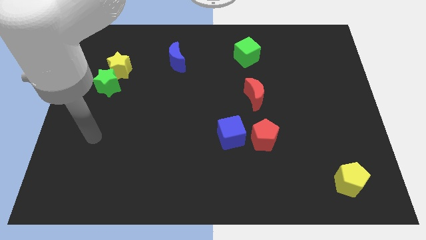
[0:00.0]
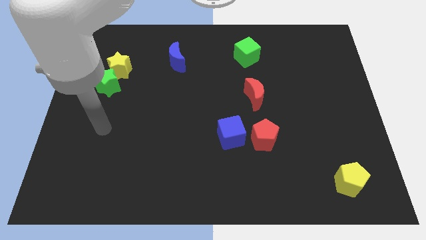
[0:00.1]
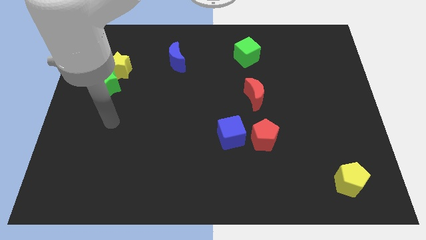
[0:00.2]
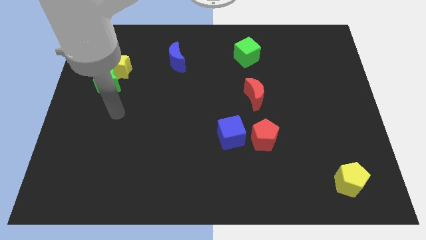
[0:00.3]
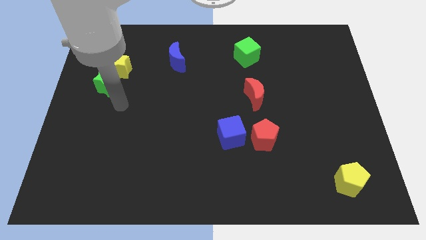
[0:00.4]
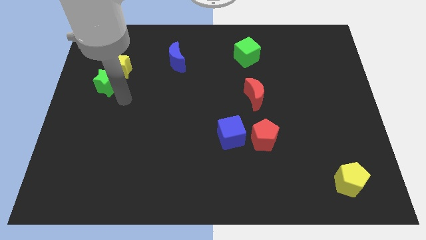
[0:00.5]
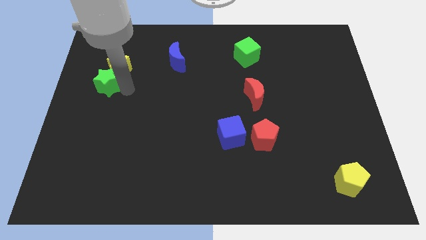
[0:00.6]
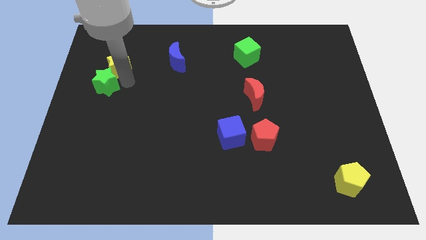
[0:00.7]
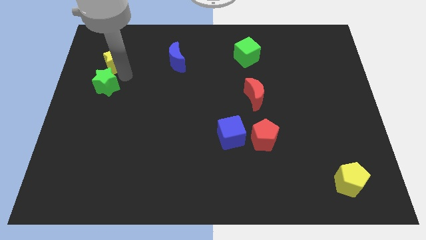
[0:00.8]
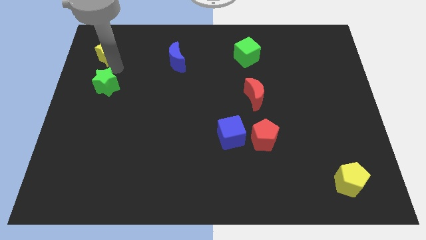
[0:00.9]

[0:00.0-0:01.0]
move the green star away from the yellow star

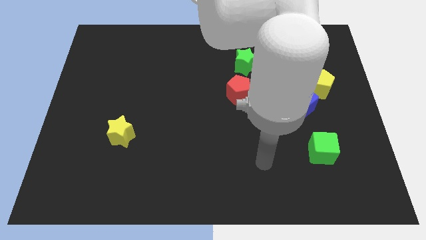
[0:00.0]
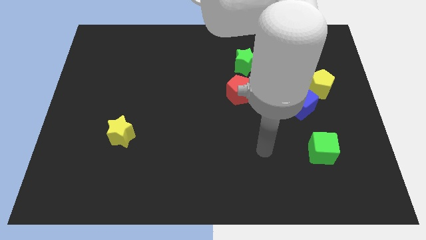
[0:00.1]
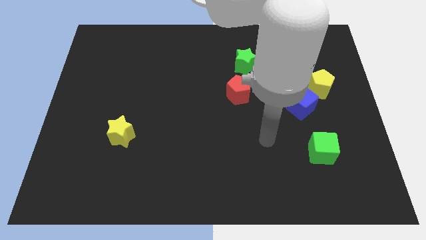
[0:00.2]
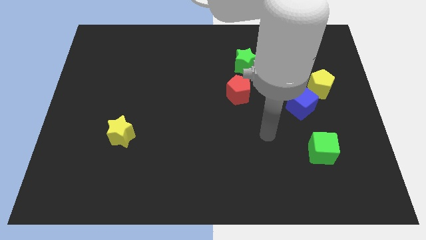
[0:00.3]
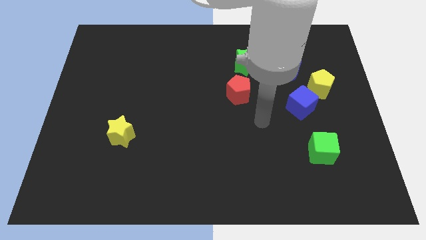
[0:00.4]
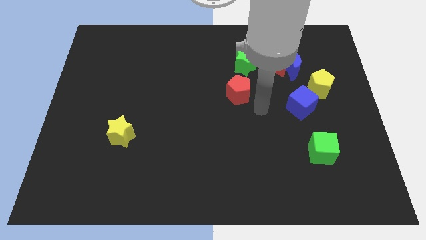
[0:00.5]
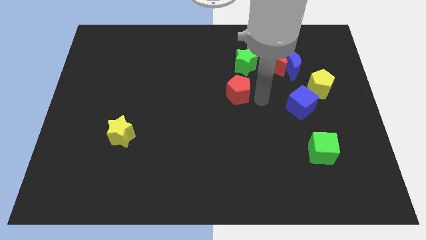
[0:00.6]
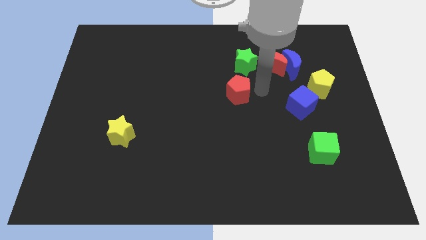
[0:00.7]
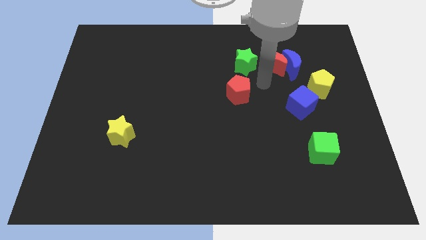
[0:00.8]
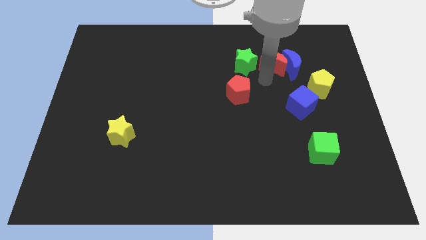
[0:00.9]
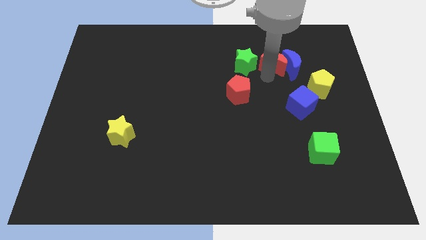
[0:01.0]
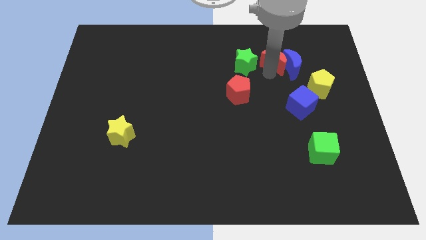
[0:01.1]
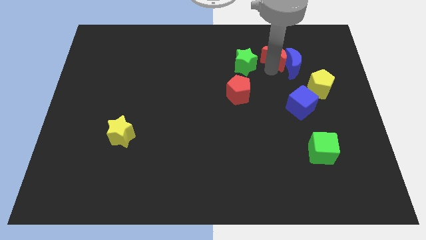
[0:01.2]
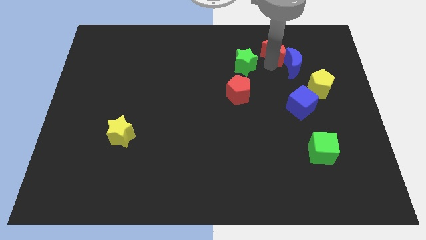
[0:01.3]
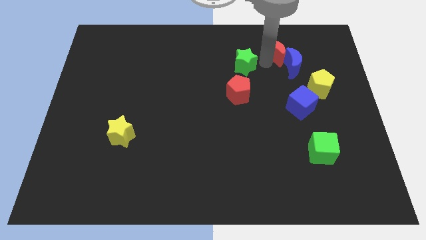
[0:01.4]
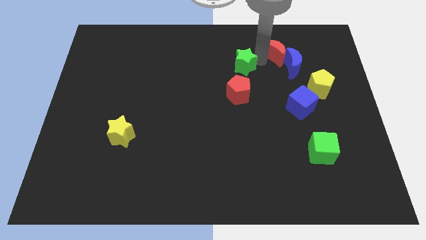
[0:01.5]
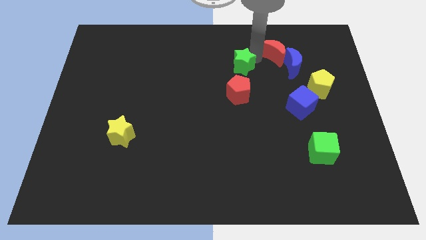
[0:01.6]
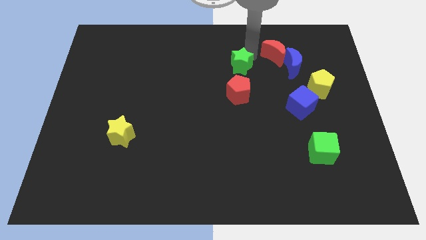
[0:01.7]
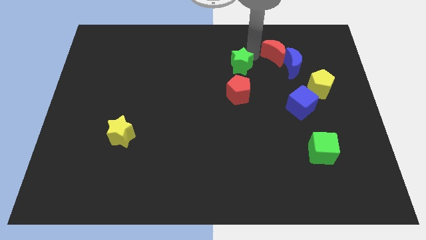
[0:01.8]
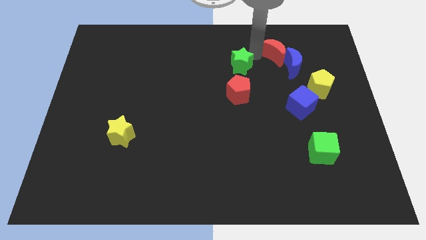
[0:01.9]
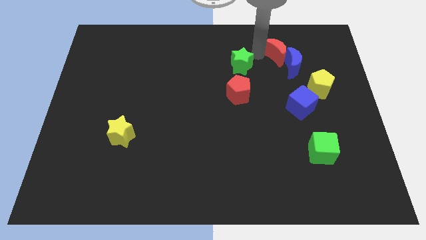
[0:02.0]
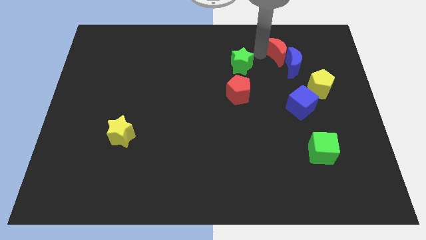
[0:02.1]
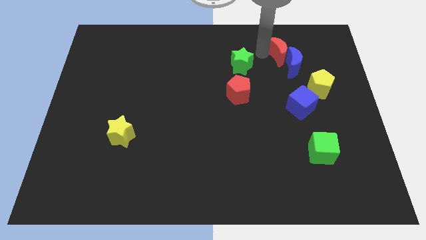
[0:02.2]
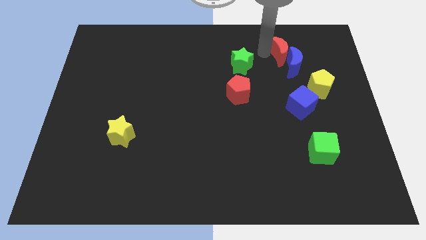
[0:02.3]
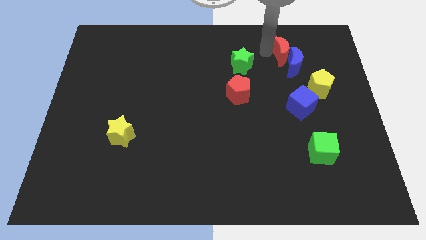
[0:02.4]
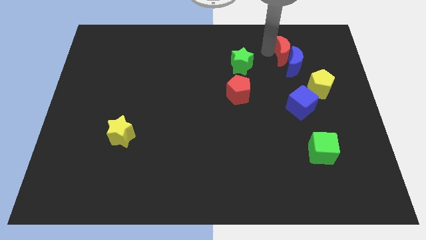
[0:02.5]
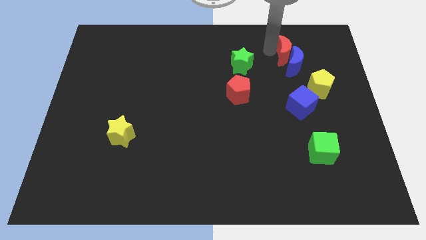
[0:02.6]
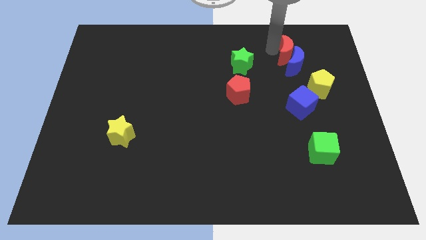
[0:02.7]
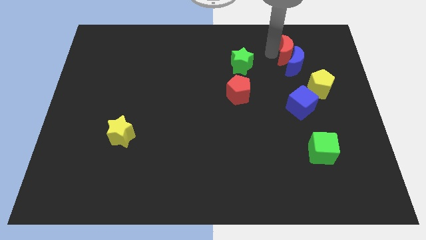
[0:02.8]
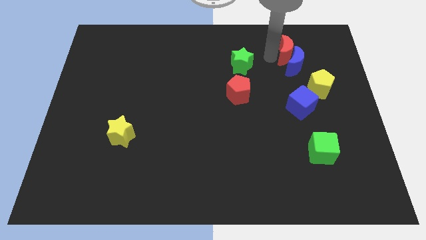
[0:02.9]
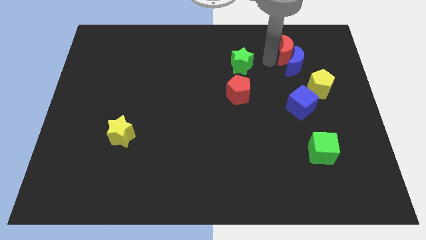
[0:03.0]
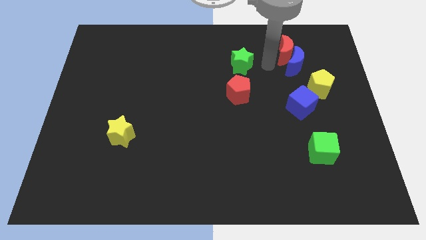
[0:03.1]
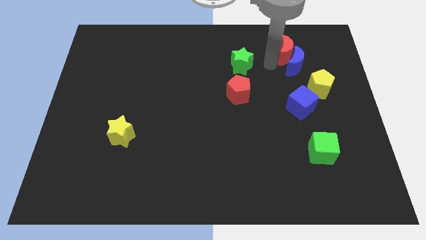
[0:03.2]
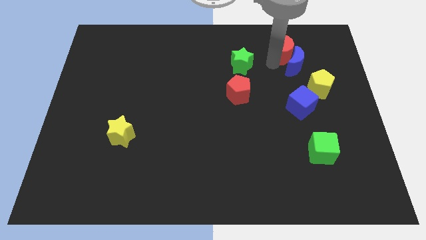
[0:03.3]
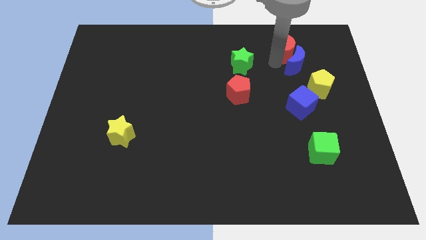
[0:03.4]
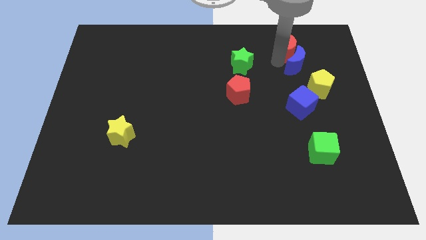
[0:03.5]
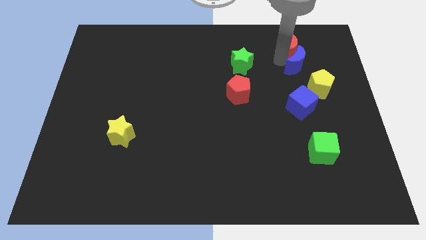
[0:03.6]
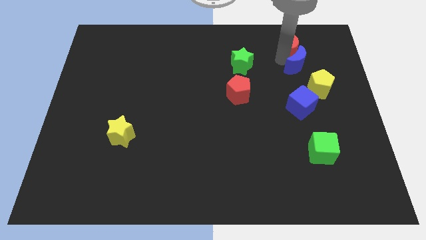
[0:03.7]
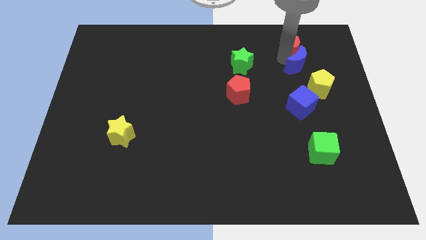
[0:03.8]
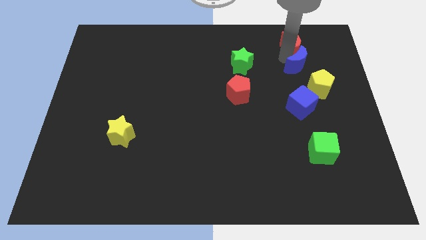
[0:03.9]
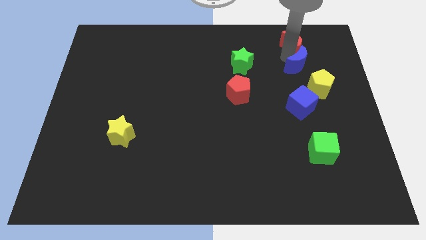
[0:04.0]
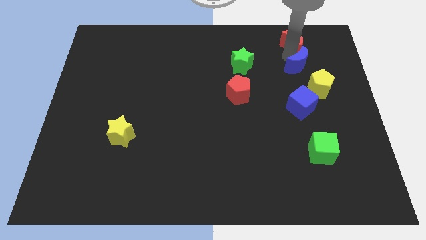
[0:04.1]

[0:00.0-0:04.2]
separate the red moon from the blue moon and green star

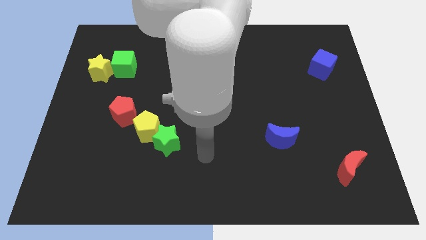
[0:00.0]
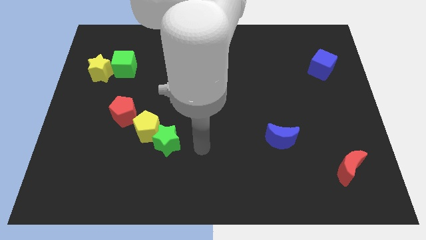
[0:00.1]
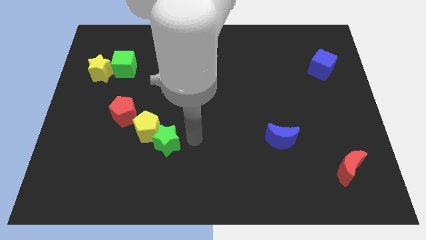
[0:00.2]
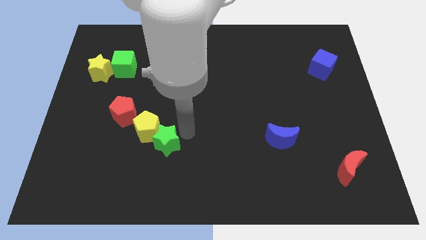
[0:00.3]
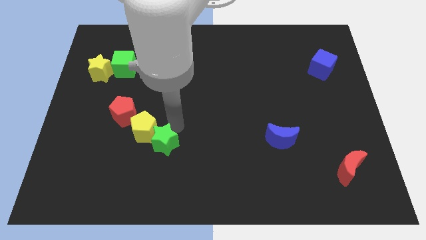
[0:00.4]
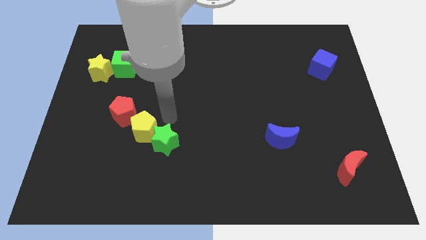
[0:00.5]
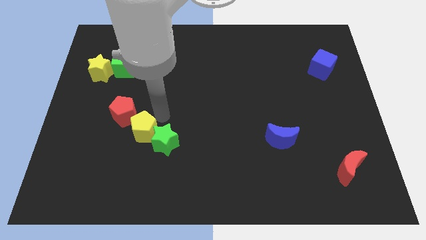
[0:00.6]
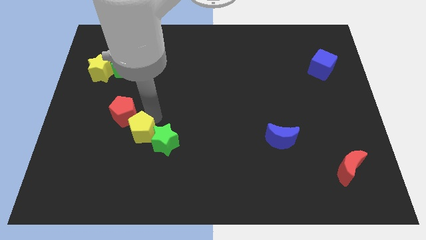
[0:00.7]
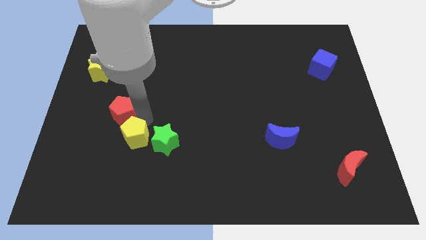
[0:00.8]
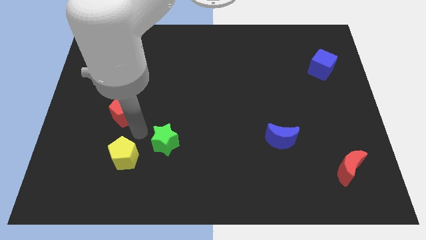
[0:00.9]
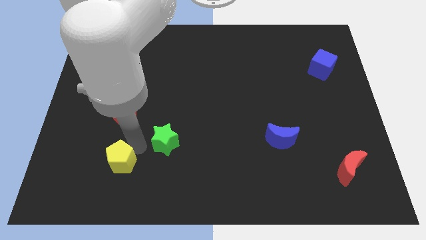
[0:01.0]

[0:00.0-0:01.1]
pull the green star apart from the yellow pentagon

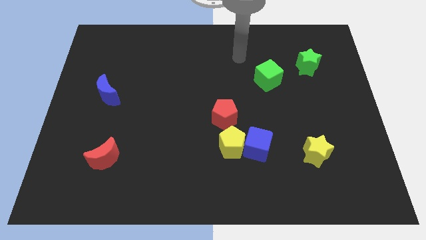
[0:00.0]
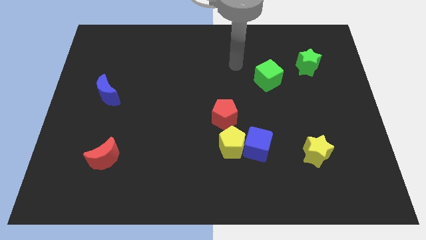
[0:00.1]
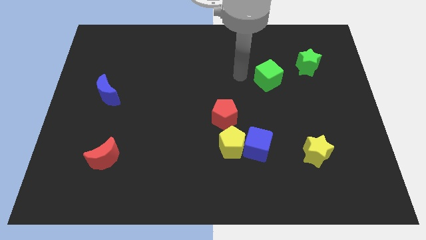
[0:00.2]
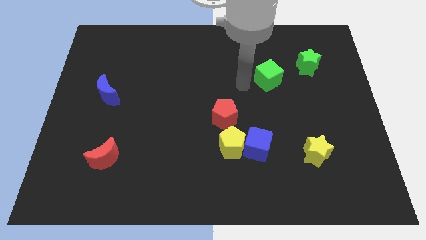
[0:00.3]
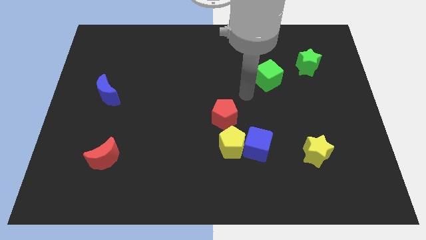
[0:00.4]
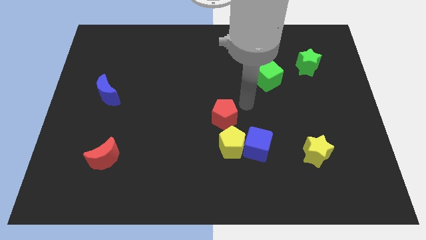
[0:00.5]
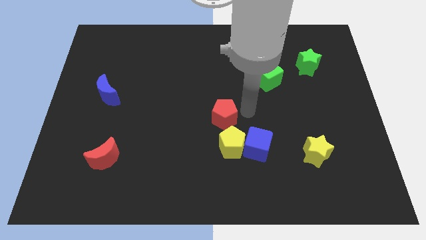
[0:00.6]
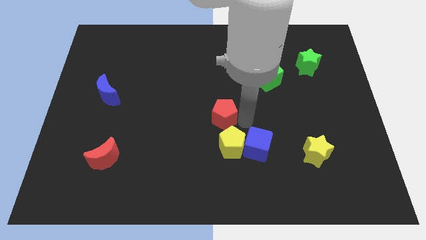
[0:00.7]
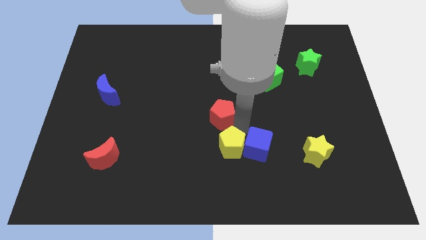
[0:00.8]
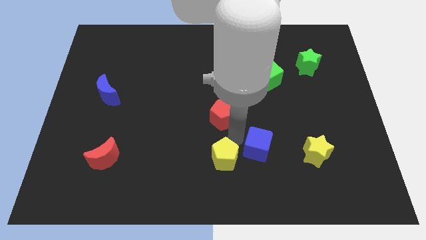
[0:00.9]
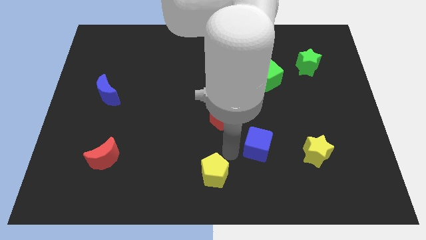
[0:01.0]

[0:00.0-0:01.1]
separate the blue cube from the yellow pentagon

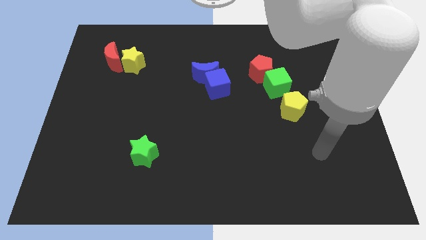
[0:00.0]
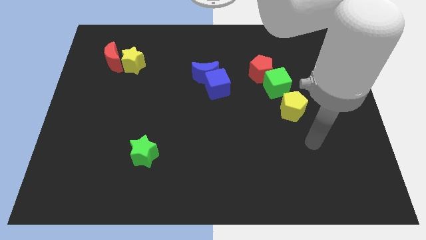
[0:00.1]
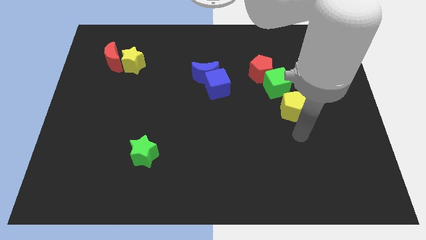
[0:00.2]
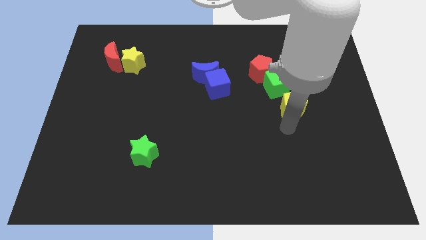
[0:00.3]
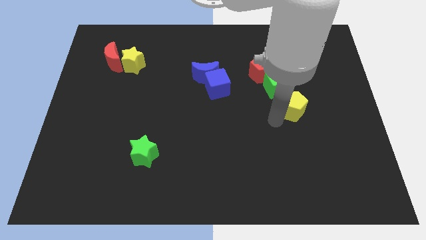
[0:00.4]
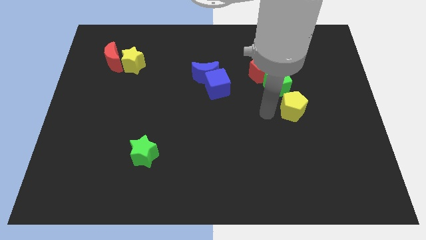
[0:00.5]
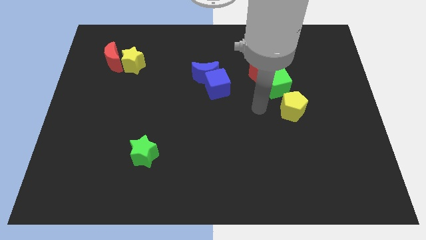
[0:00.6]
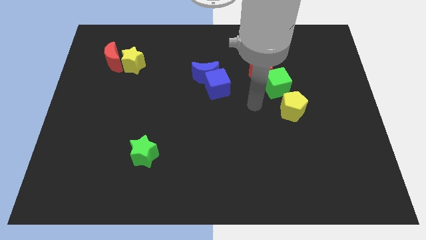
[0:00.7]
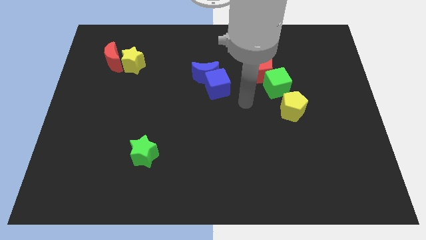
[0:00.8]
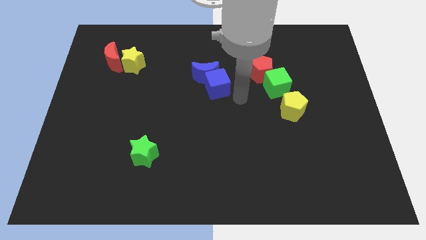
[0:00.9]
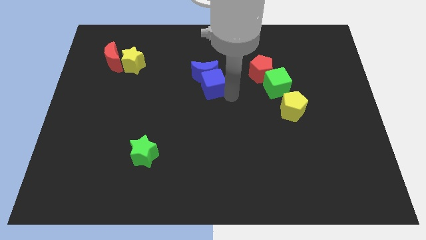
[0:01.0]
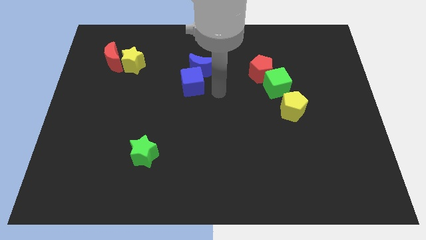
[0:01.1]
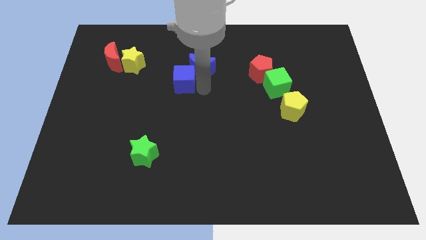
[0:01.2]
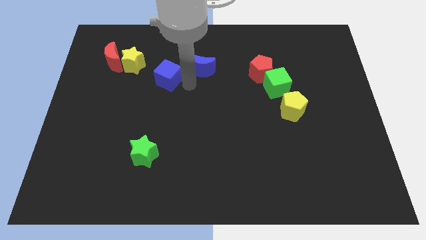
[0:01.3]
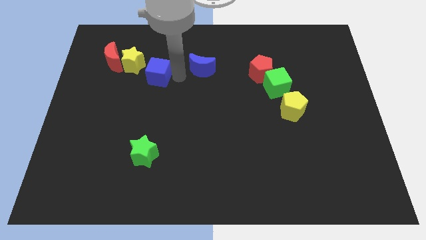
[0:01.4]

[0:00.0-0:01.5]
pull the blue moon apart from the blue cube

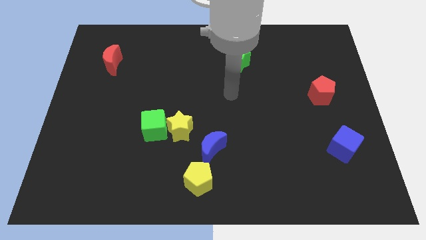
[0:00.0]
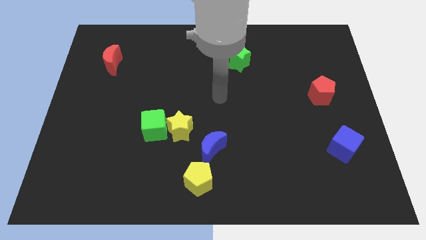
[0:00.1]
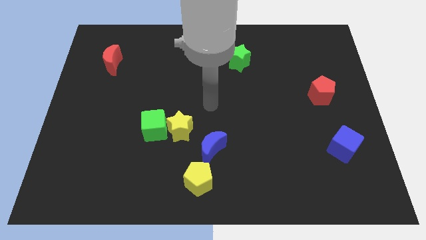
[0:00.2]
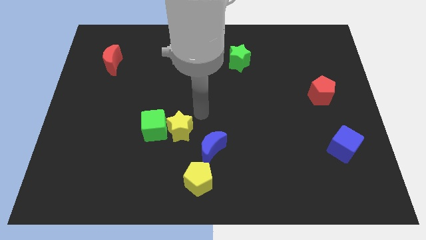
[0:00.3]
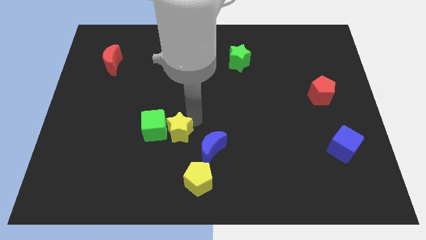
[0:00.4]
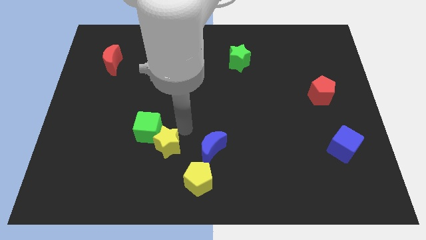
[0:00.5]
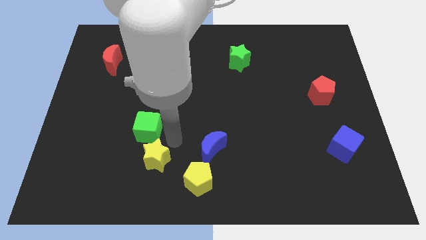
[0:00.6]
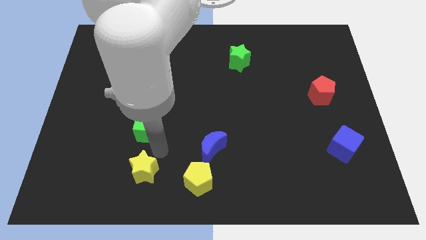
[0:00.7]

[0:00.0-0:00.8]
pull the green cube apart from the yellow star
